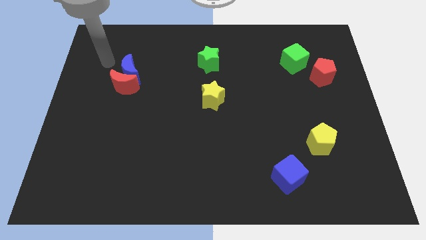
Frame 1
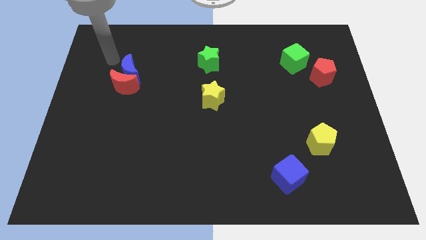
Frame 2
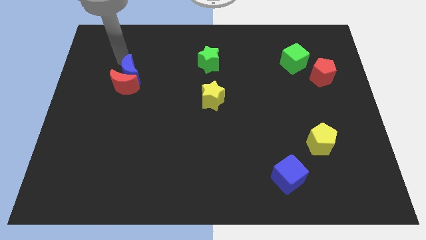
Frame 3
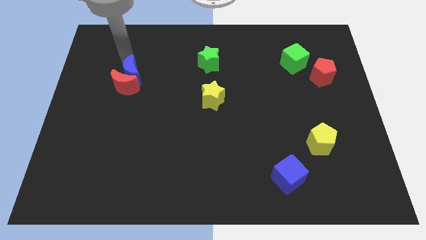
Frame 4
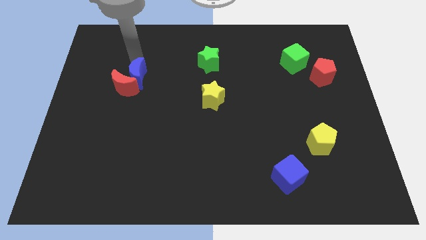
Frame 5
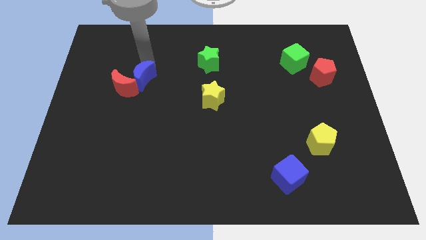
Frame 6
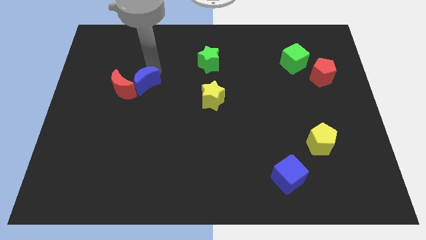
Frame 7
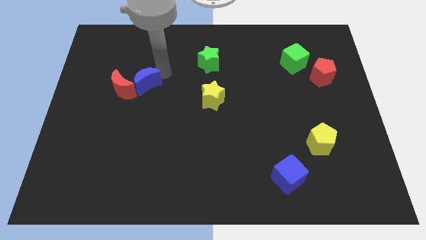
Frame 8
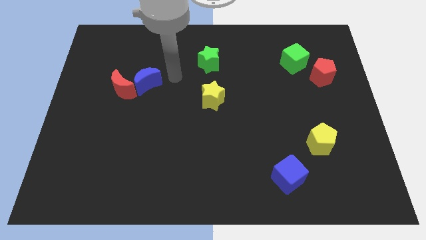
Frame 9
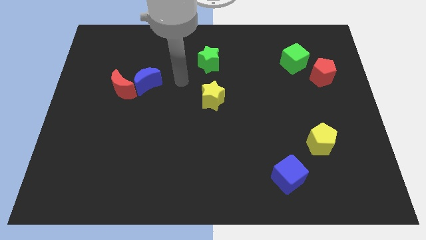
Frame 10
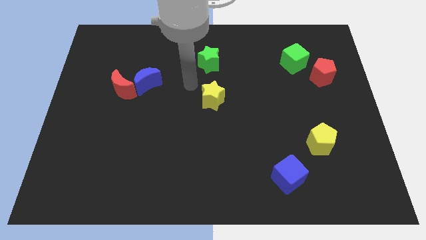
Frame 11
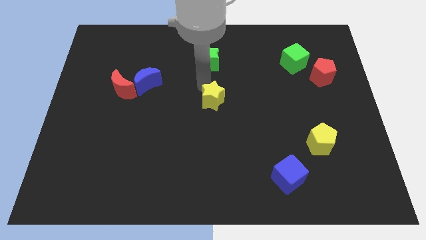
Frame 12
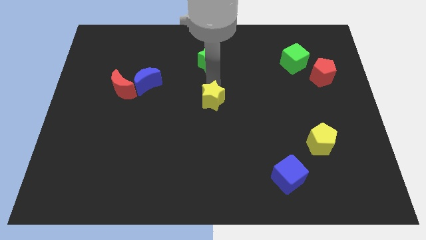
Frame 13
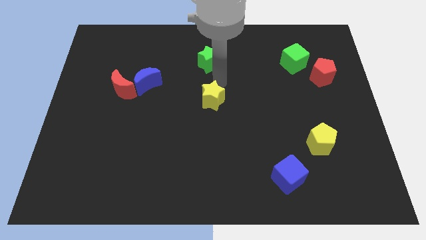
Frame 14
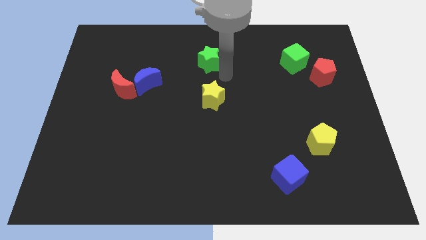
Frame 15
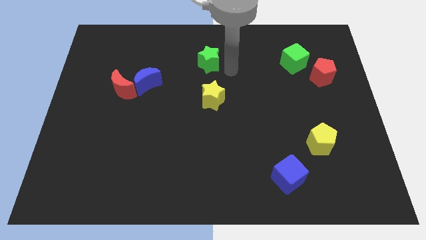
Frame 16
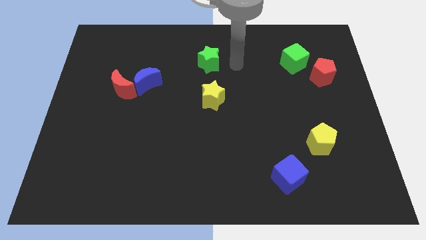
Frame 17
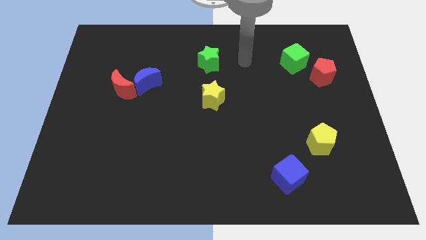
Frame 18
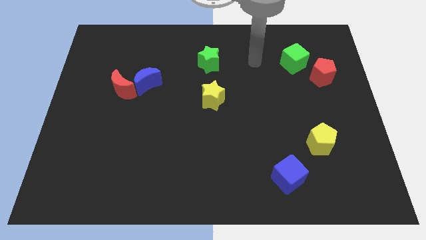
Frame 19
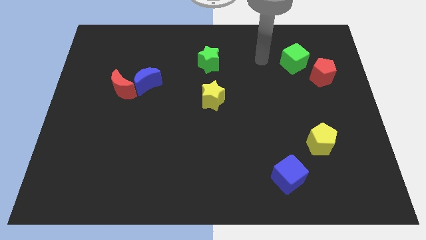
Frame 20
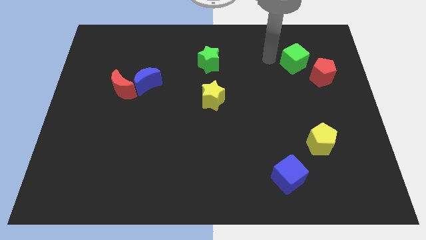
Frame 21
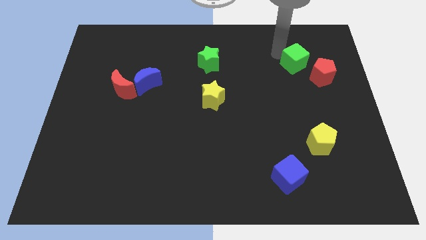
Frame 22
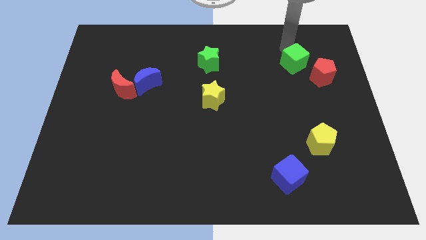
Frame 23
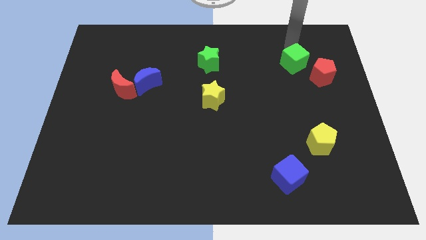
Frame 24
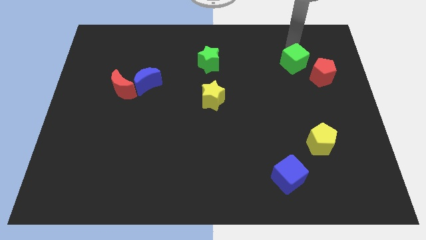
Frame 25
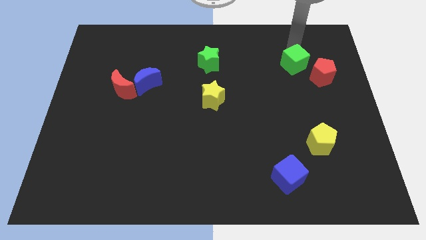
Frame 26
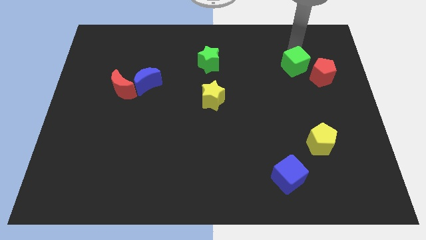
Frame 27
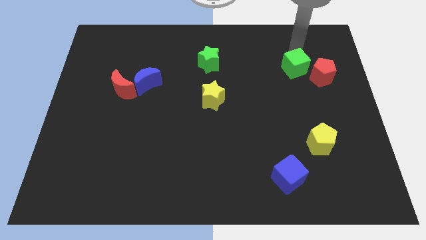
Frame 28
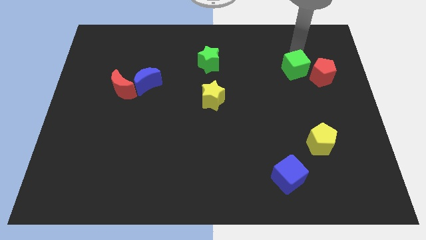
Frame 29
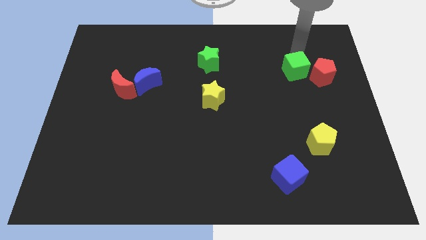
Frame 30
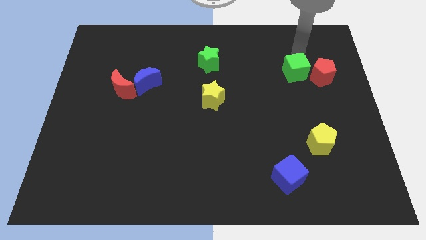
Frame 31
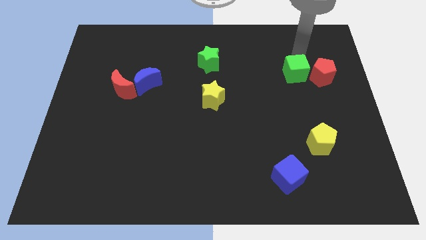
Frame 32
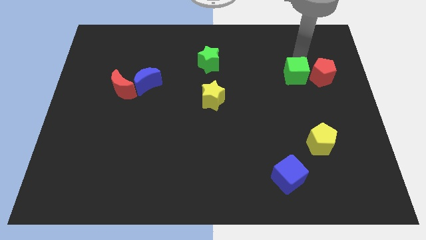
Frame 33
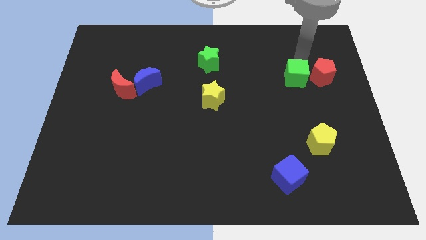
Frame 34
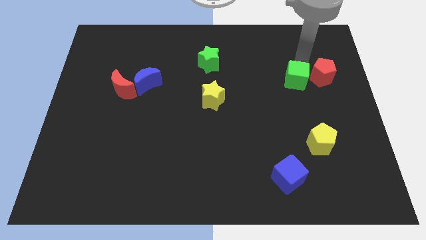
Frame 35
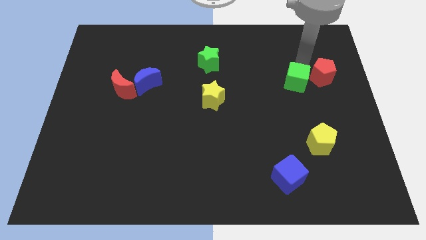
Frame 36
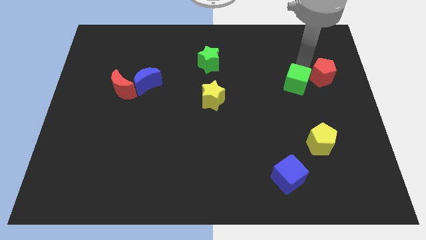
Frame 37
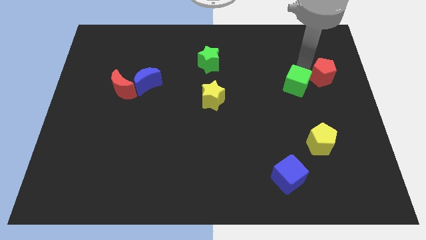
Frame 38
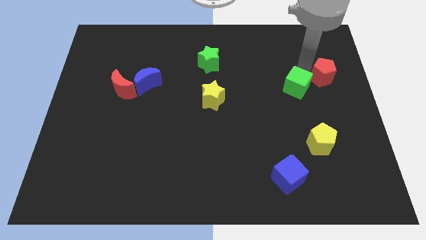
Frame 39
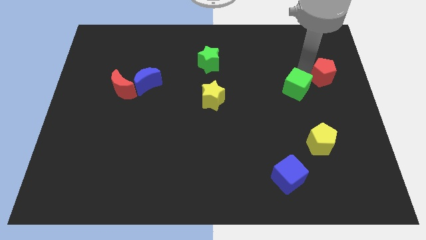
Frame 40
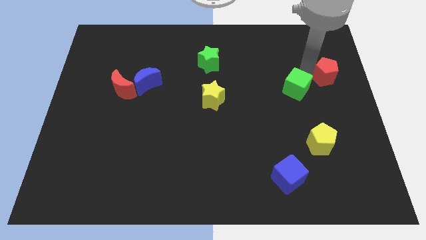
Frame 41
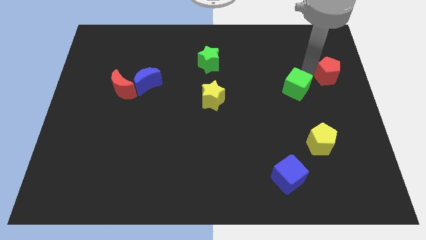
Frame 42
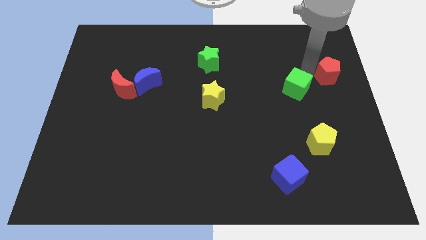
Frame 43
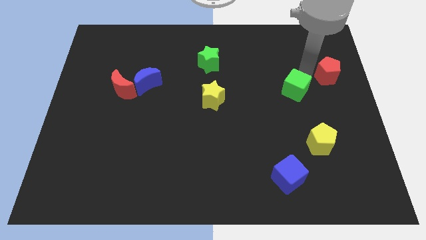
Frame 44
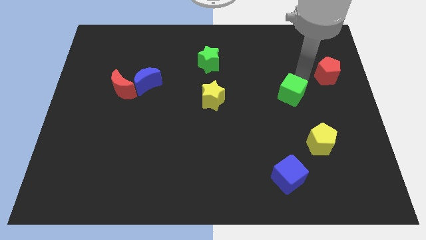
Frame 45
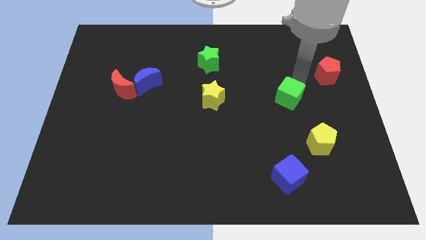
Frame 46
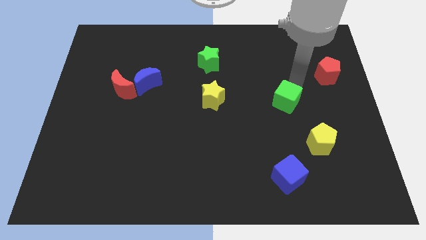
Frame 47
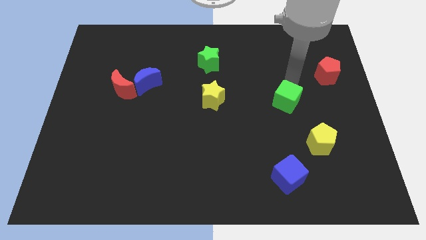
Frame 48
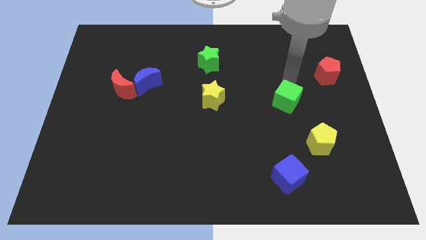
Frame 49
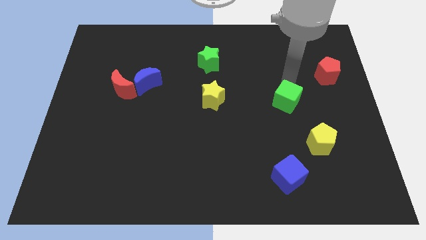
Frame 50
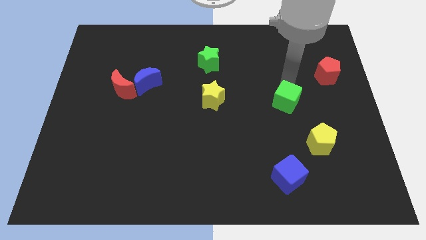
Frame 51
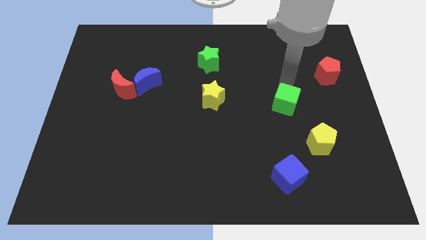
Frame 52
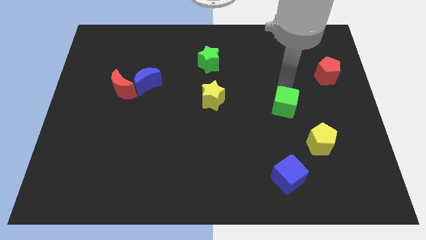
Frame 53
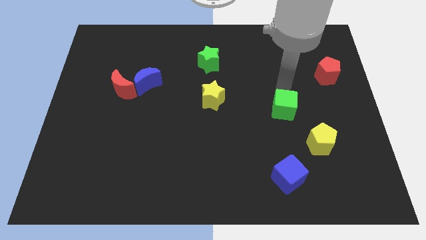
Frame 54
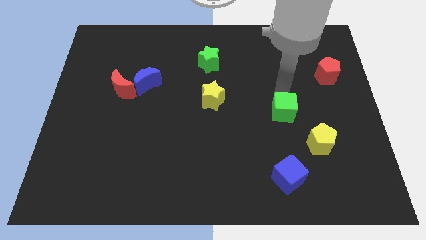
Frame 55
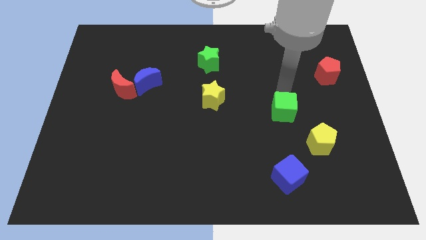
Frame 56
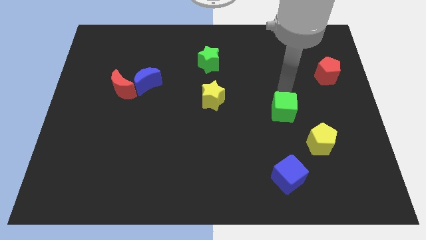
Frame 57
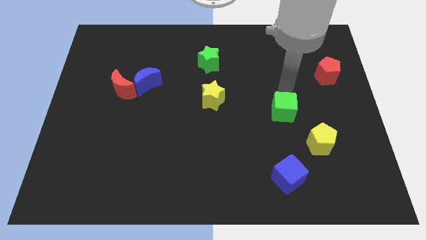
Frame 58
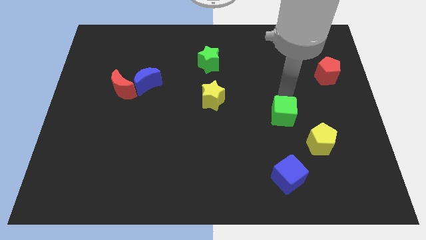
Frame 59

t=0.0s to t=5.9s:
move the green cube above the blue cube

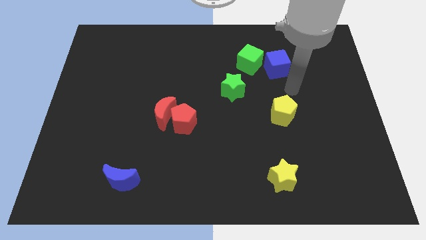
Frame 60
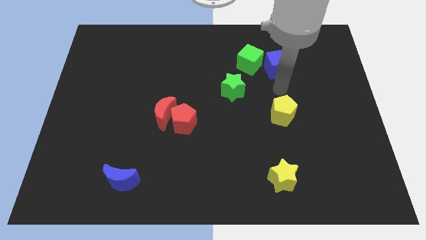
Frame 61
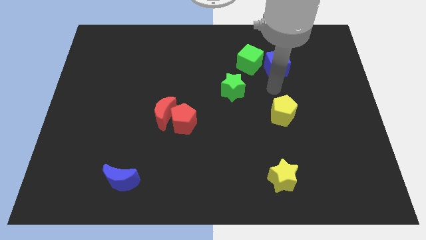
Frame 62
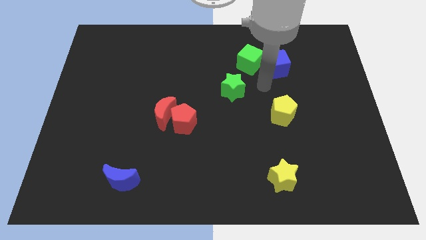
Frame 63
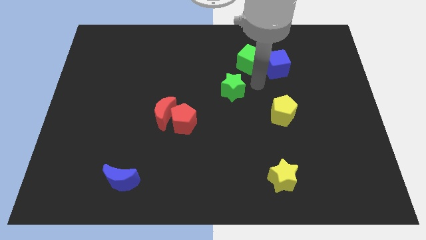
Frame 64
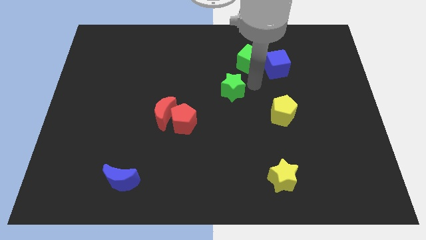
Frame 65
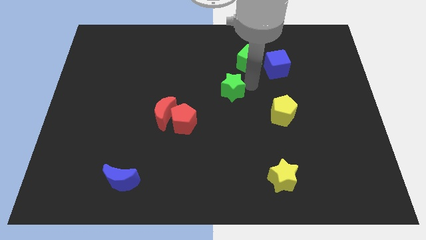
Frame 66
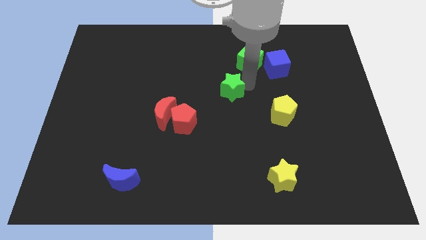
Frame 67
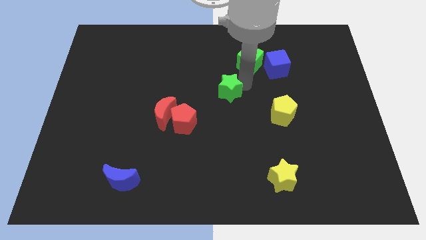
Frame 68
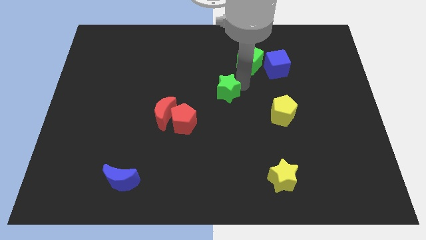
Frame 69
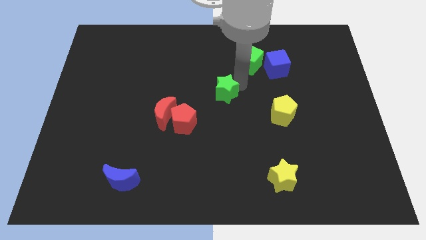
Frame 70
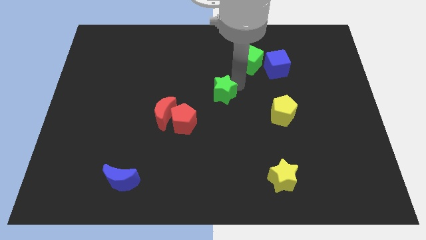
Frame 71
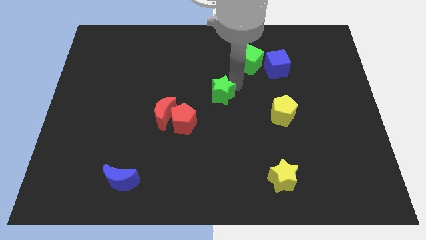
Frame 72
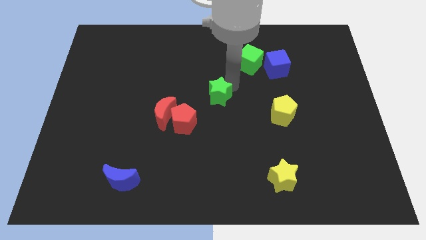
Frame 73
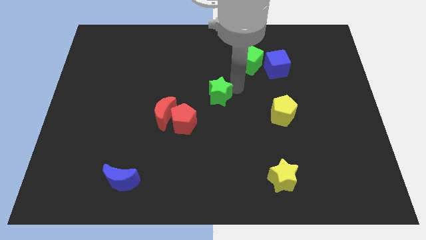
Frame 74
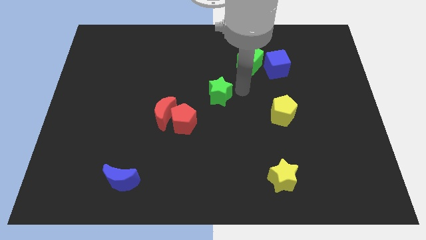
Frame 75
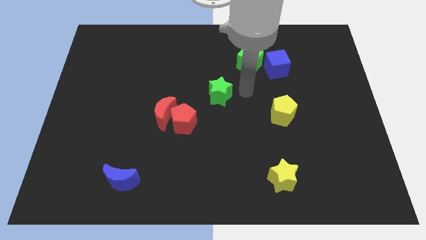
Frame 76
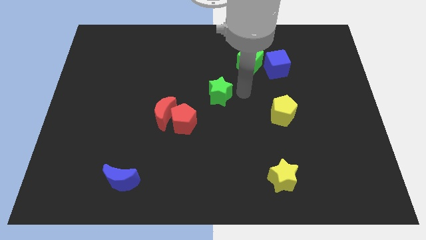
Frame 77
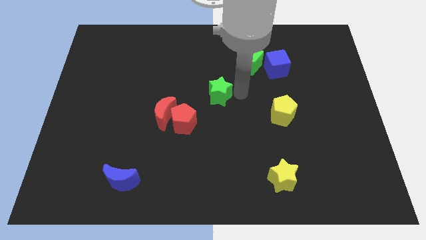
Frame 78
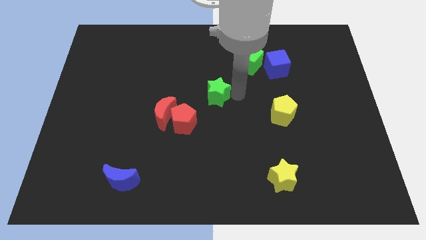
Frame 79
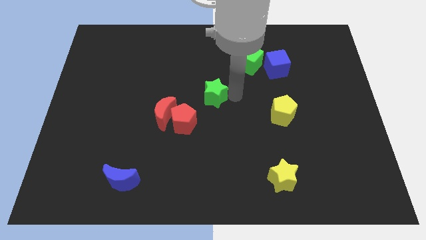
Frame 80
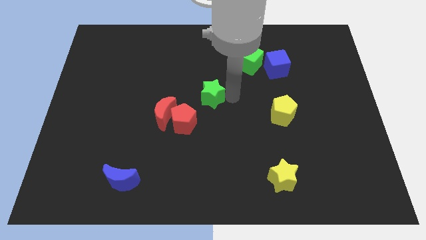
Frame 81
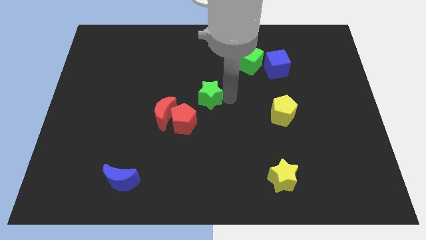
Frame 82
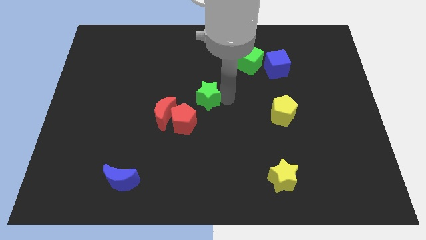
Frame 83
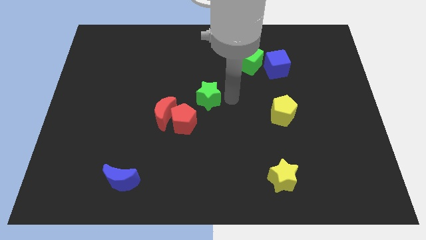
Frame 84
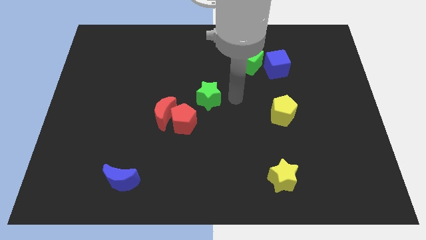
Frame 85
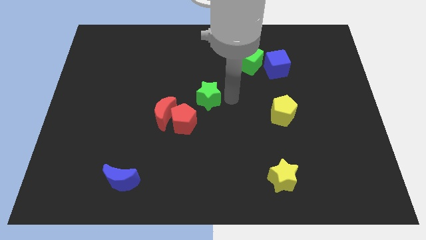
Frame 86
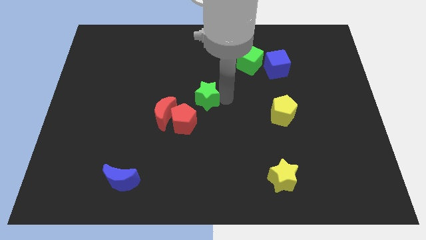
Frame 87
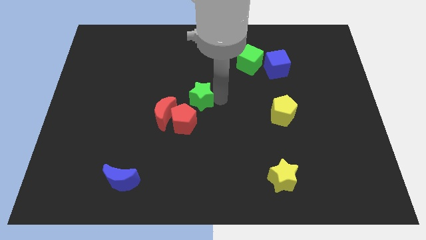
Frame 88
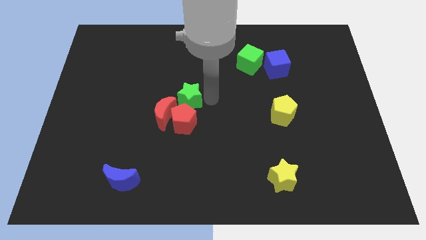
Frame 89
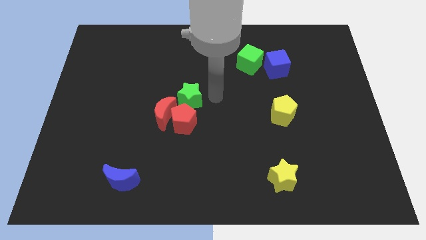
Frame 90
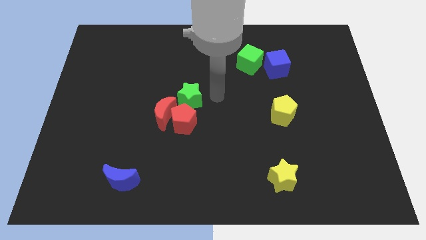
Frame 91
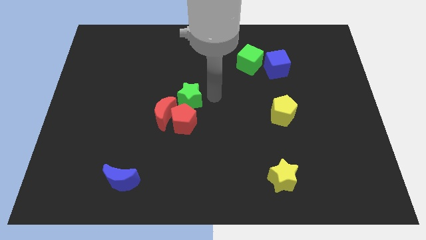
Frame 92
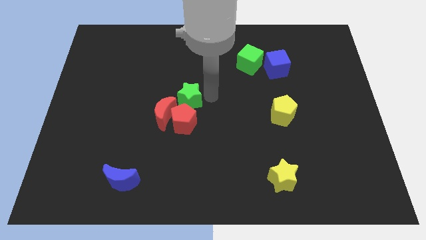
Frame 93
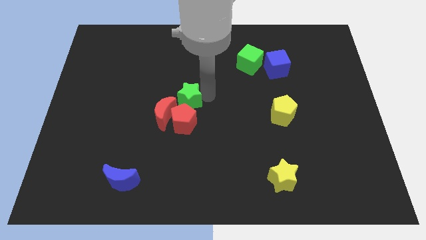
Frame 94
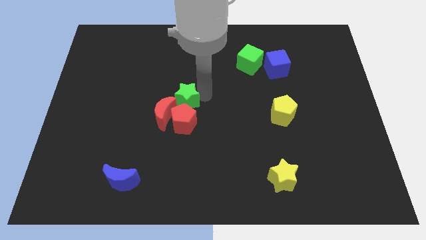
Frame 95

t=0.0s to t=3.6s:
slide the green star to the top left side of the red pentagon
